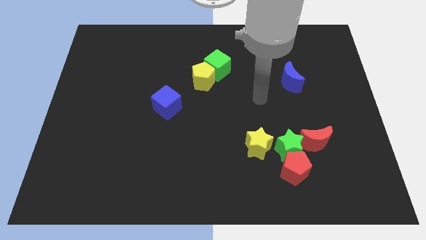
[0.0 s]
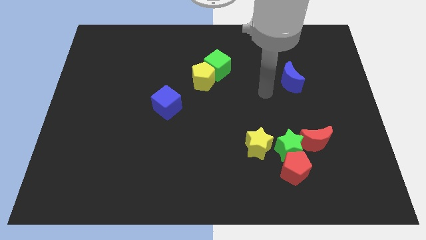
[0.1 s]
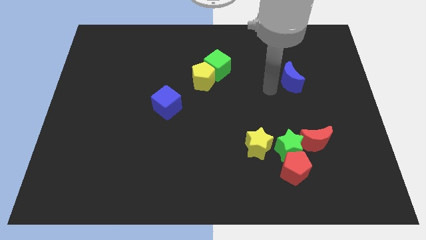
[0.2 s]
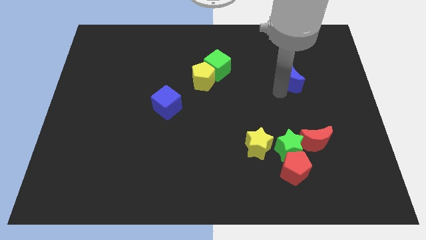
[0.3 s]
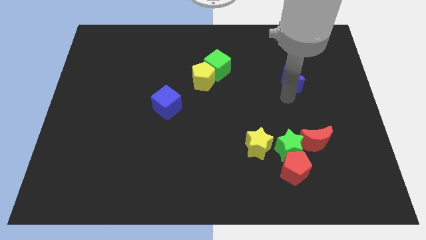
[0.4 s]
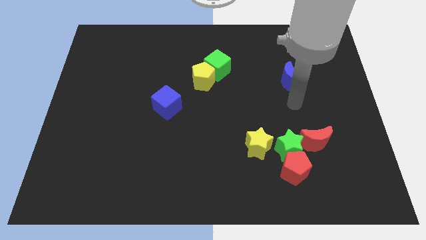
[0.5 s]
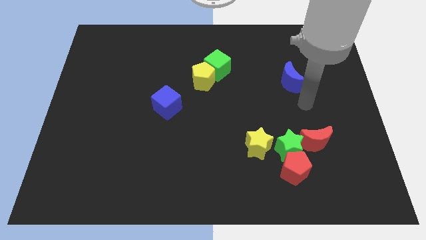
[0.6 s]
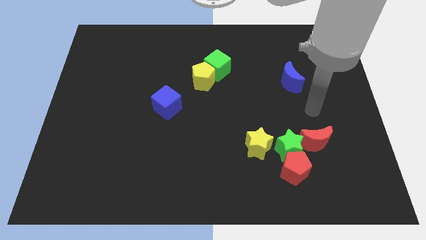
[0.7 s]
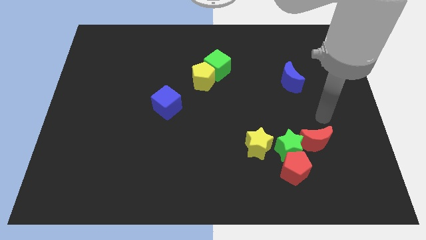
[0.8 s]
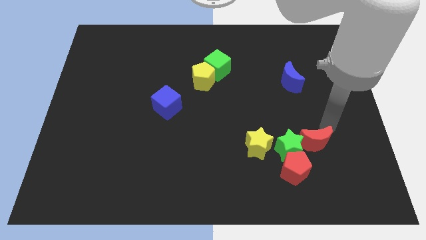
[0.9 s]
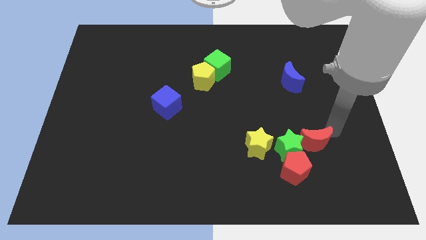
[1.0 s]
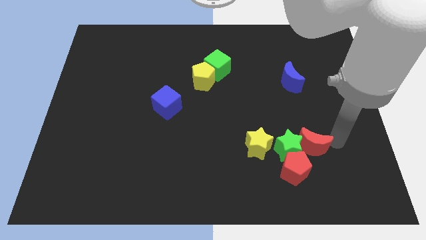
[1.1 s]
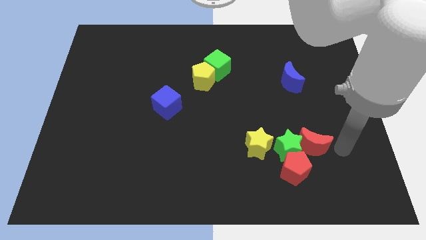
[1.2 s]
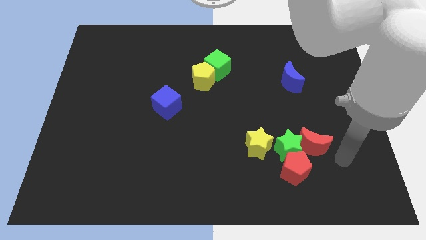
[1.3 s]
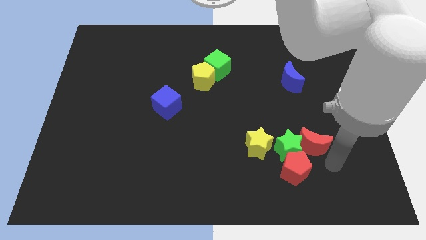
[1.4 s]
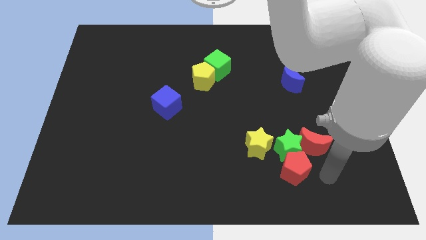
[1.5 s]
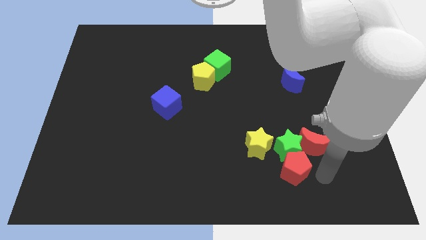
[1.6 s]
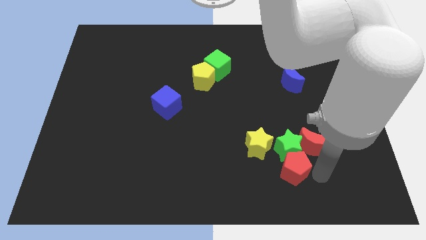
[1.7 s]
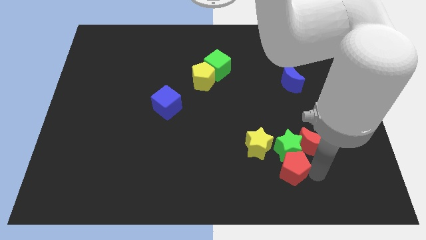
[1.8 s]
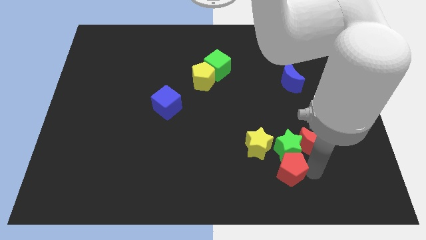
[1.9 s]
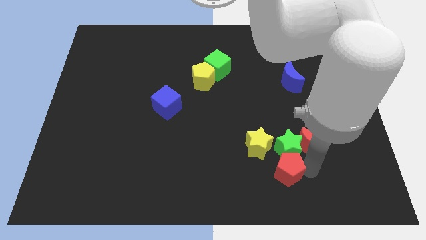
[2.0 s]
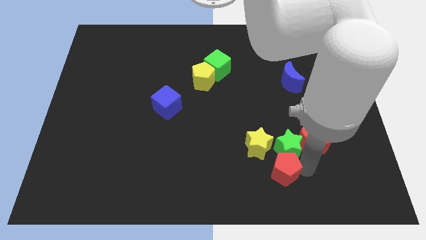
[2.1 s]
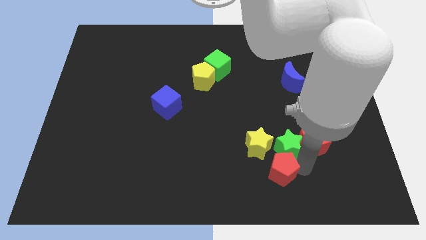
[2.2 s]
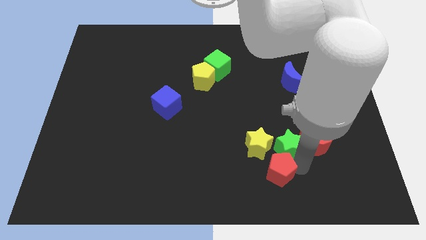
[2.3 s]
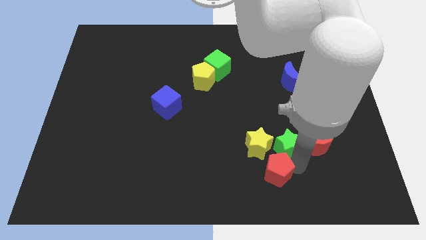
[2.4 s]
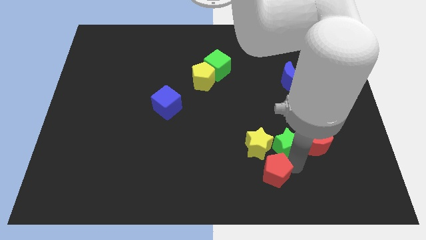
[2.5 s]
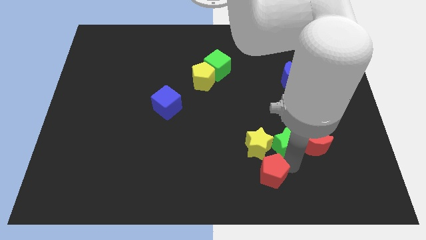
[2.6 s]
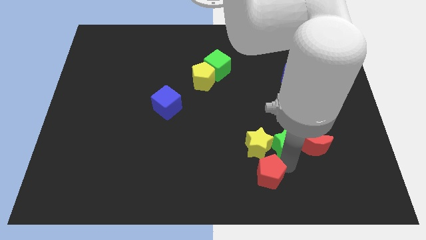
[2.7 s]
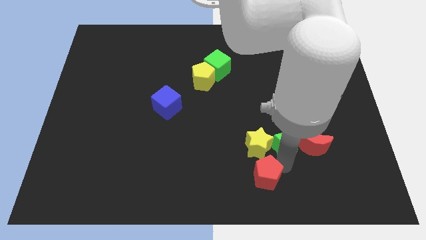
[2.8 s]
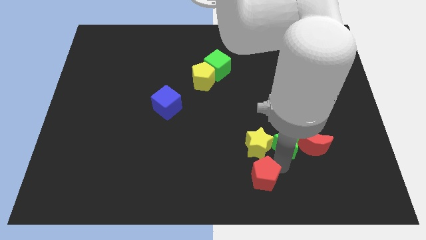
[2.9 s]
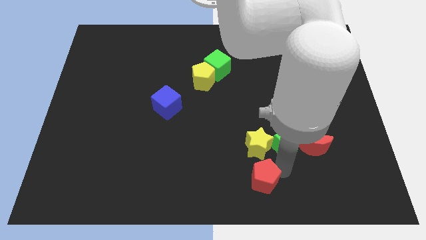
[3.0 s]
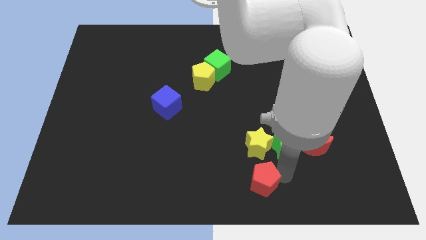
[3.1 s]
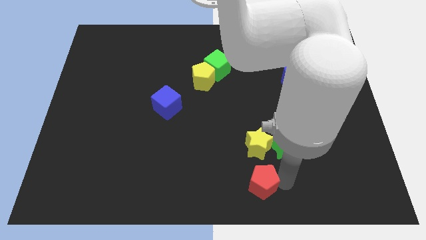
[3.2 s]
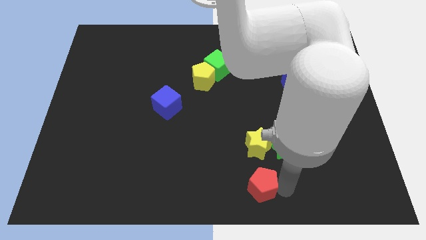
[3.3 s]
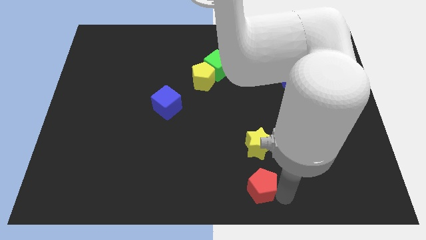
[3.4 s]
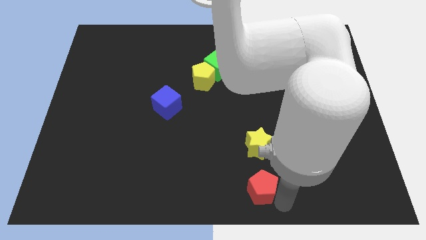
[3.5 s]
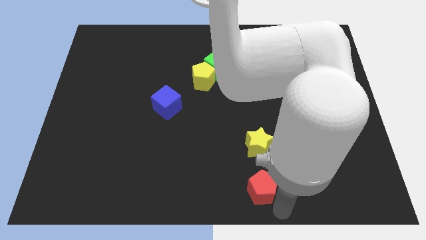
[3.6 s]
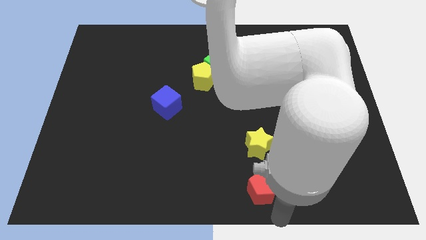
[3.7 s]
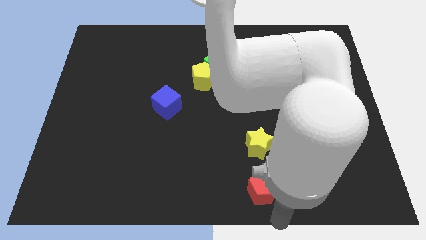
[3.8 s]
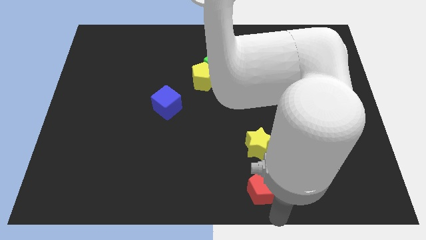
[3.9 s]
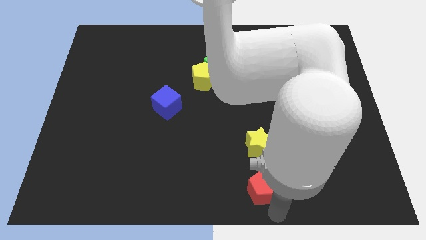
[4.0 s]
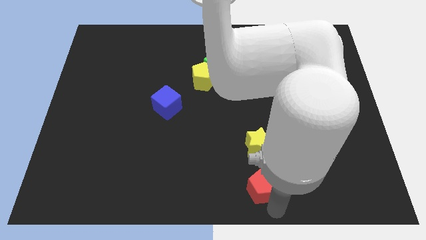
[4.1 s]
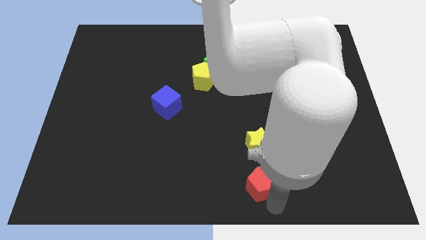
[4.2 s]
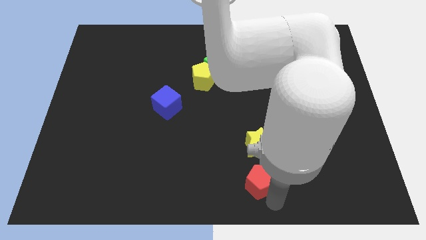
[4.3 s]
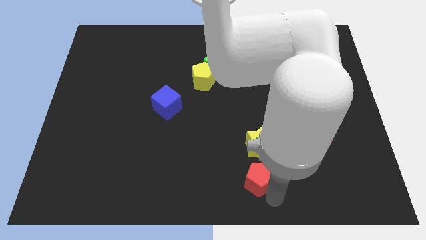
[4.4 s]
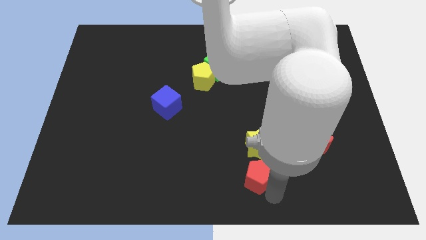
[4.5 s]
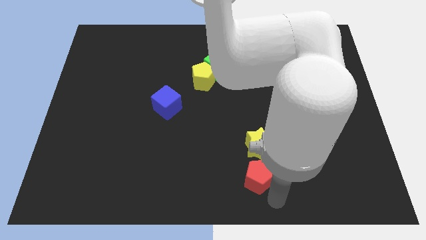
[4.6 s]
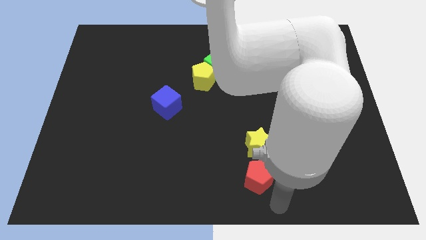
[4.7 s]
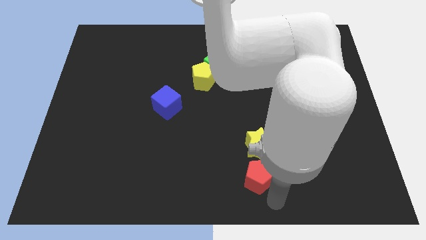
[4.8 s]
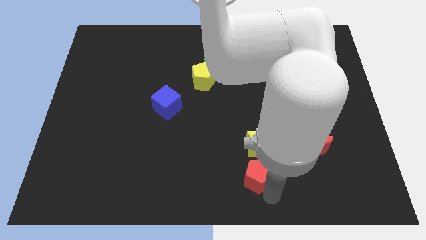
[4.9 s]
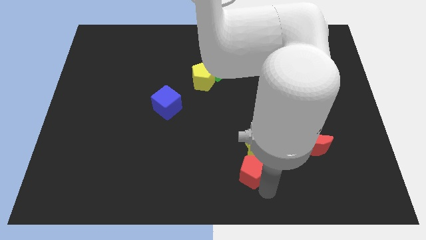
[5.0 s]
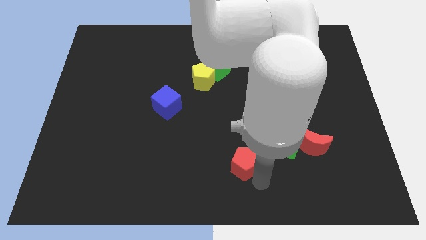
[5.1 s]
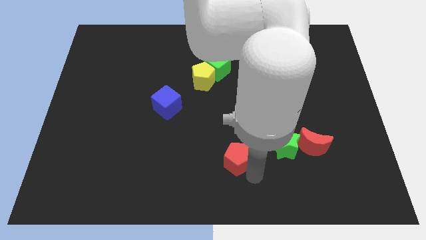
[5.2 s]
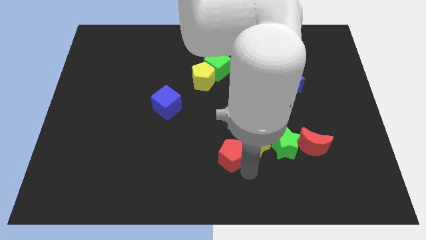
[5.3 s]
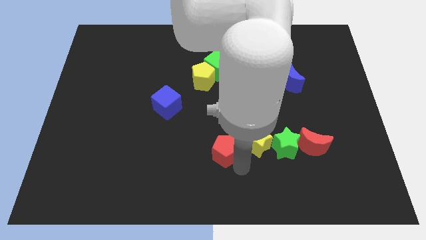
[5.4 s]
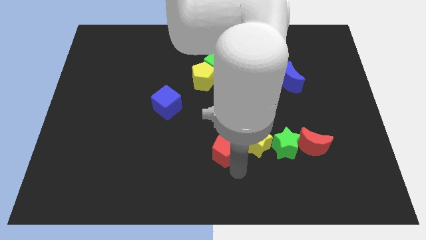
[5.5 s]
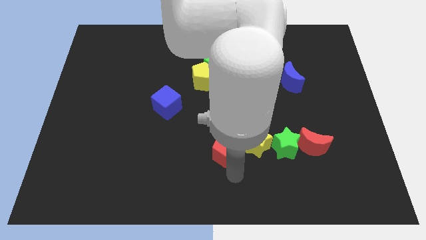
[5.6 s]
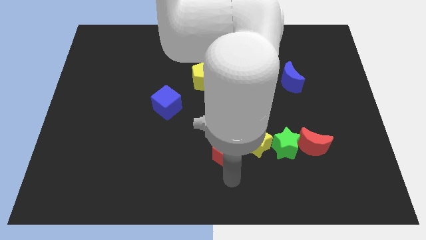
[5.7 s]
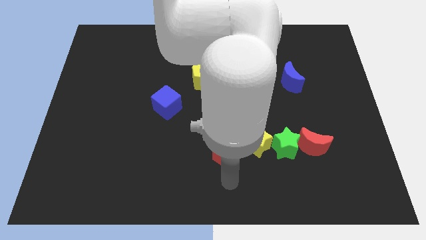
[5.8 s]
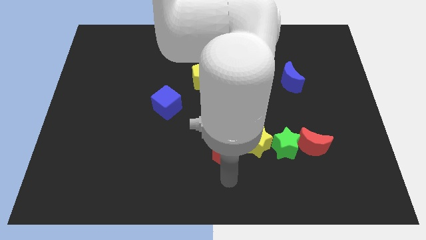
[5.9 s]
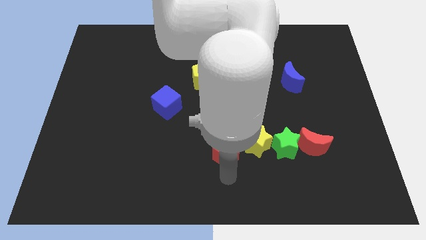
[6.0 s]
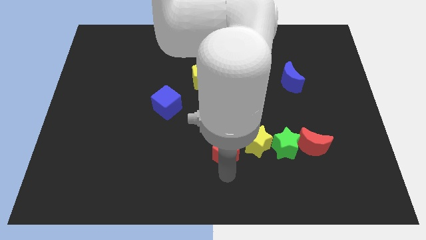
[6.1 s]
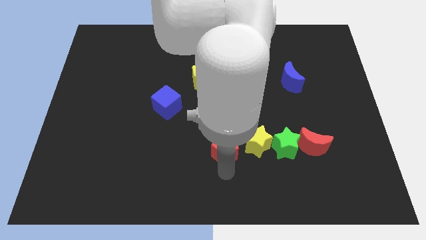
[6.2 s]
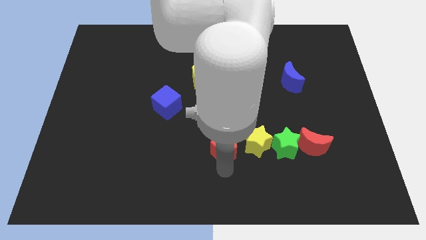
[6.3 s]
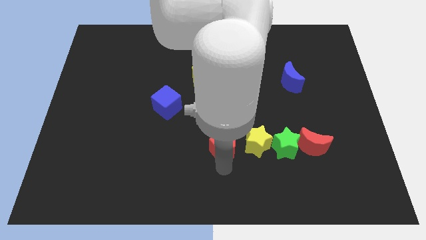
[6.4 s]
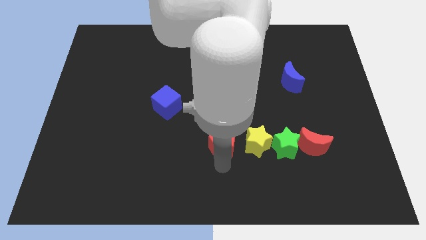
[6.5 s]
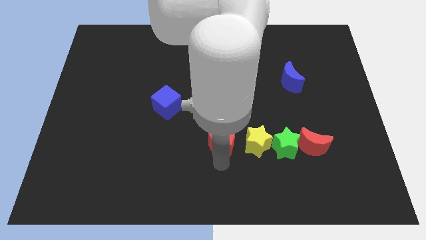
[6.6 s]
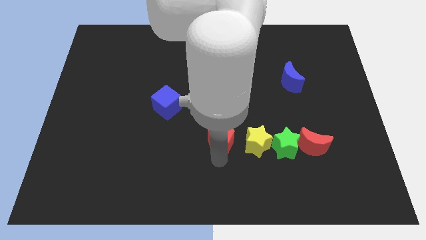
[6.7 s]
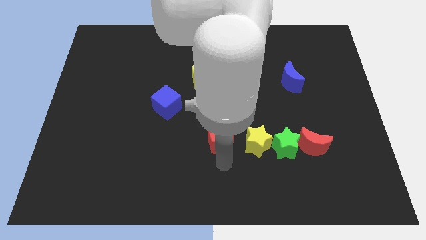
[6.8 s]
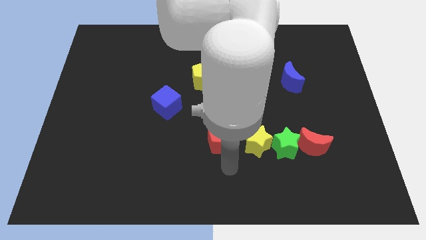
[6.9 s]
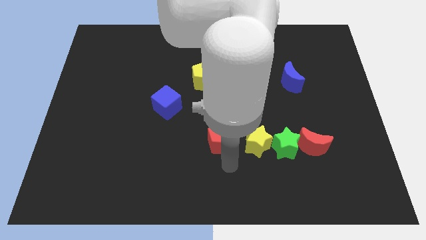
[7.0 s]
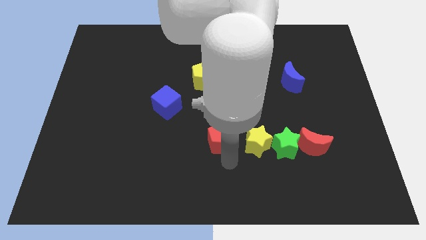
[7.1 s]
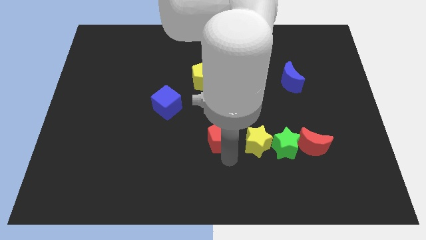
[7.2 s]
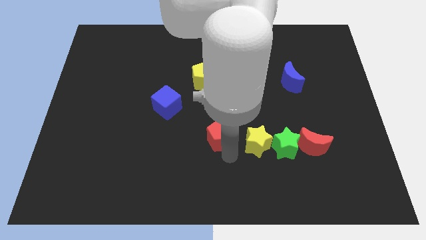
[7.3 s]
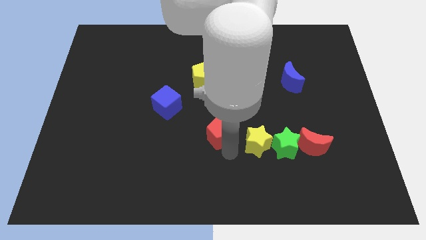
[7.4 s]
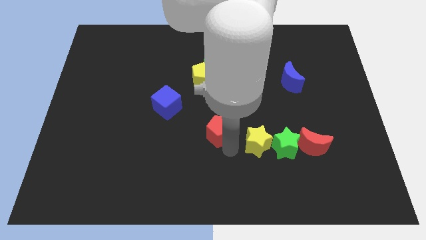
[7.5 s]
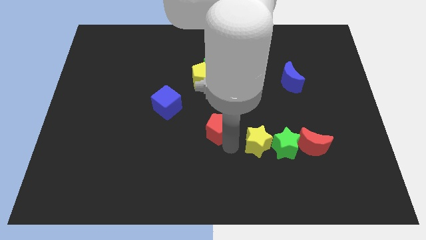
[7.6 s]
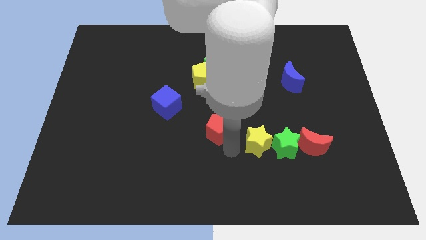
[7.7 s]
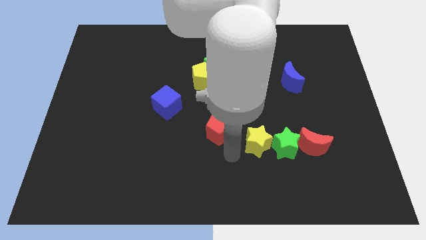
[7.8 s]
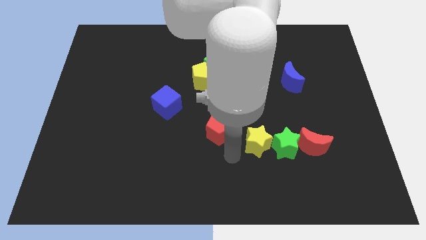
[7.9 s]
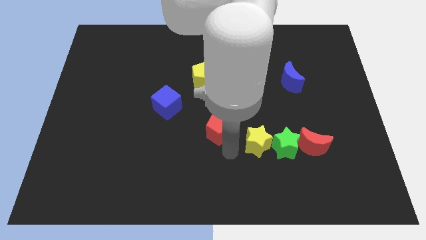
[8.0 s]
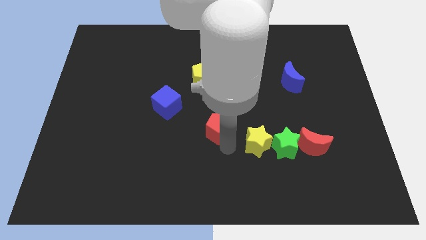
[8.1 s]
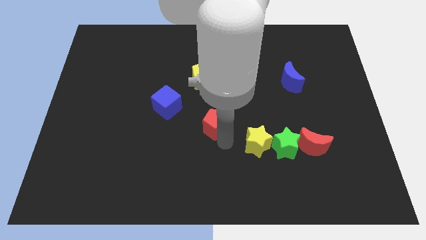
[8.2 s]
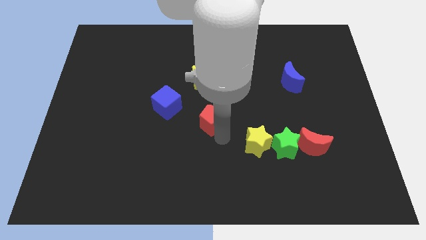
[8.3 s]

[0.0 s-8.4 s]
slide the red pentagon up and to the left diagonally

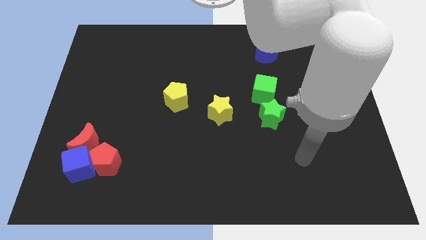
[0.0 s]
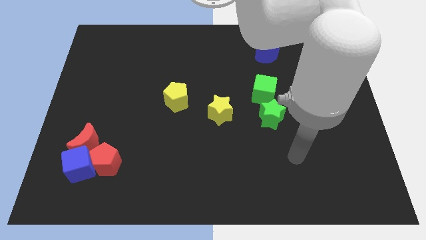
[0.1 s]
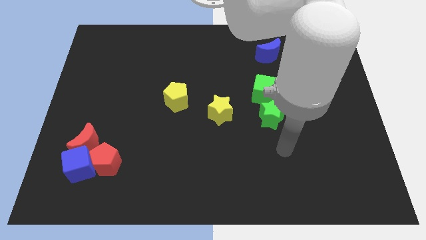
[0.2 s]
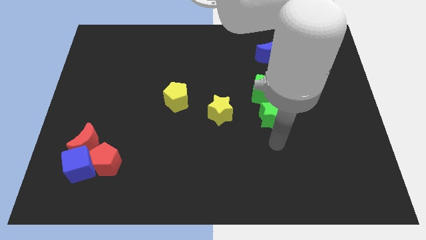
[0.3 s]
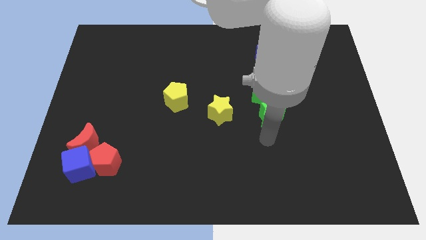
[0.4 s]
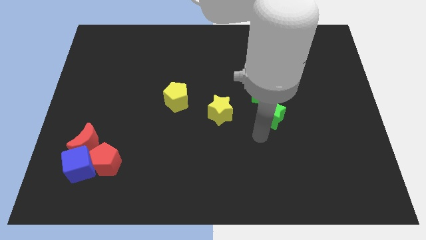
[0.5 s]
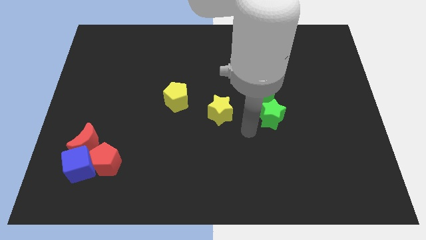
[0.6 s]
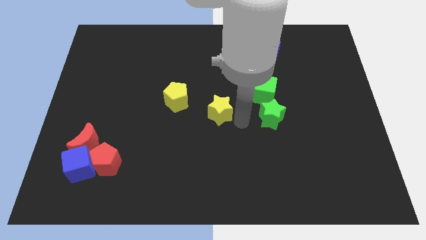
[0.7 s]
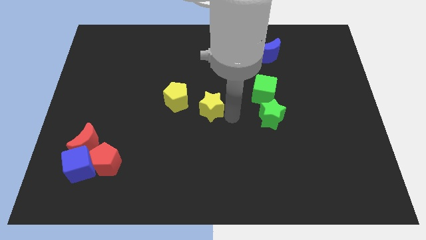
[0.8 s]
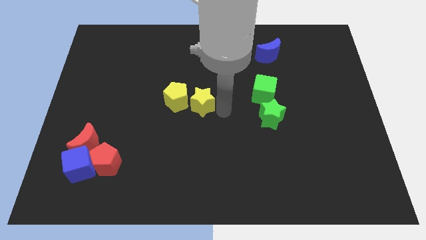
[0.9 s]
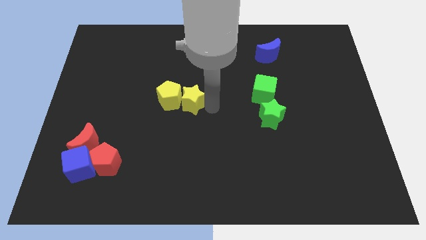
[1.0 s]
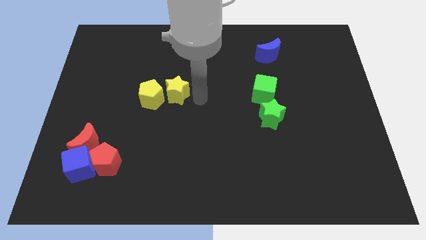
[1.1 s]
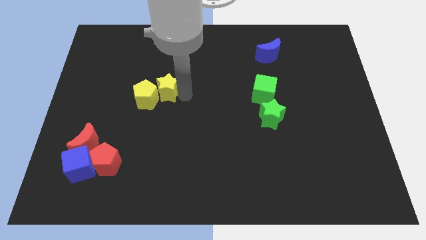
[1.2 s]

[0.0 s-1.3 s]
push the yellow pentagon slightly left
